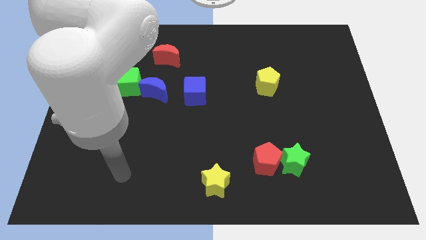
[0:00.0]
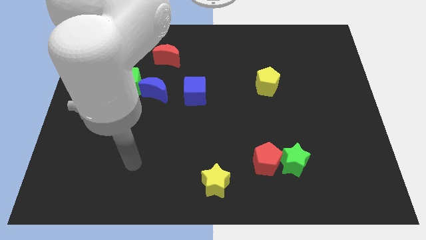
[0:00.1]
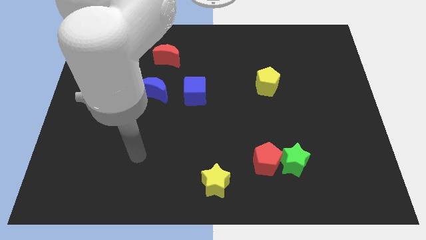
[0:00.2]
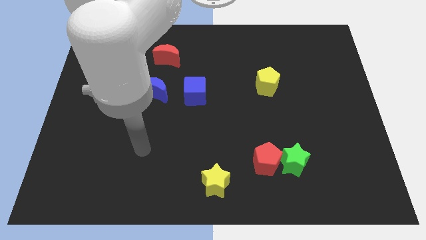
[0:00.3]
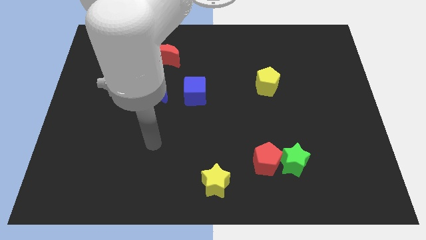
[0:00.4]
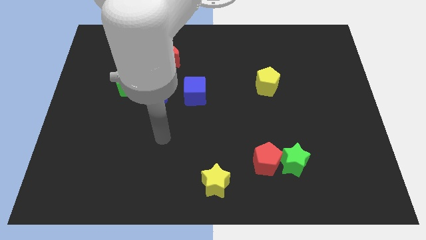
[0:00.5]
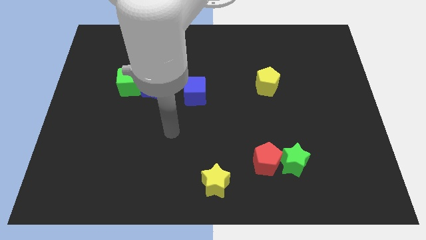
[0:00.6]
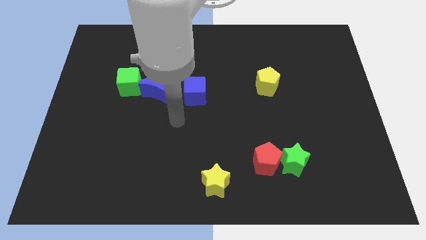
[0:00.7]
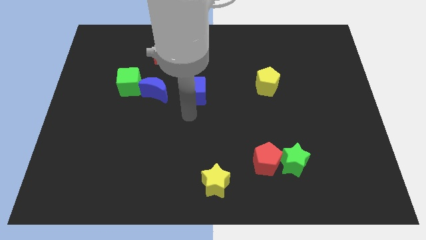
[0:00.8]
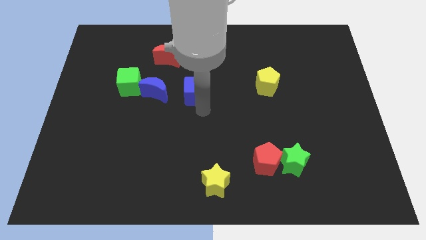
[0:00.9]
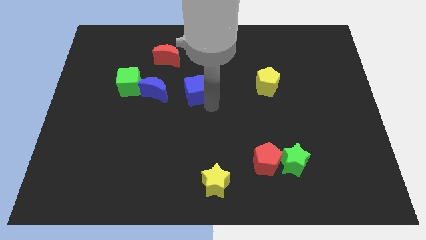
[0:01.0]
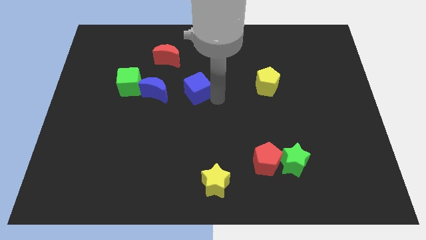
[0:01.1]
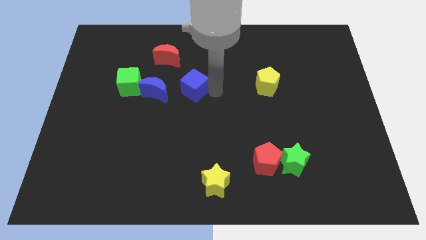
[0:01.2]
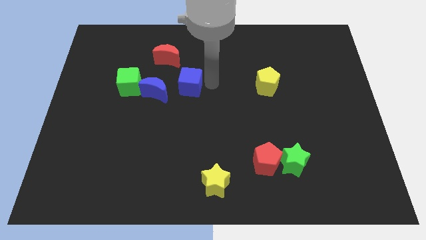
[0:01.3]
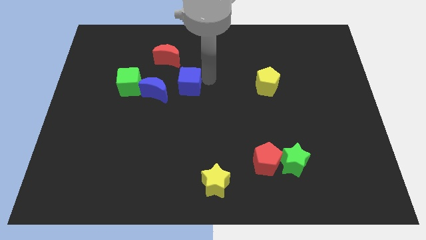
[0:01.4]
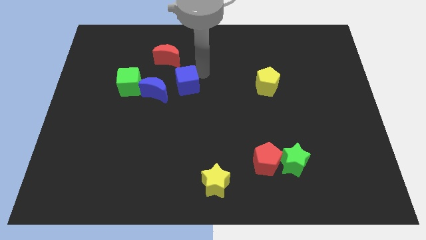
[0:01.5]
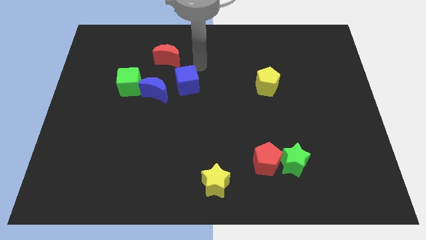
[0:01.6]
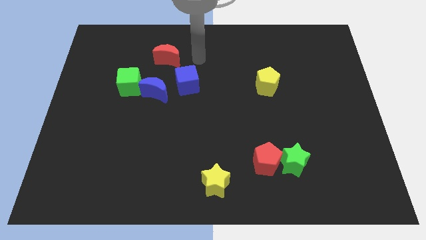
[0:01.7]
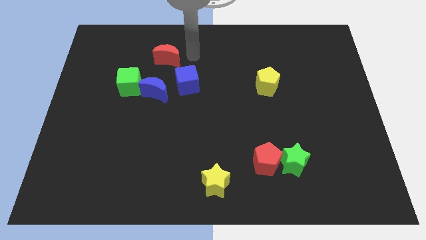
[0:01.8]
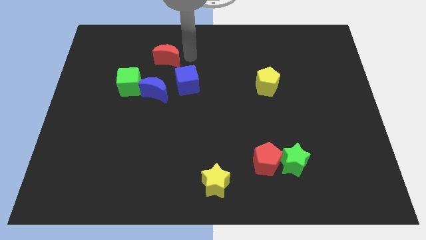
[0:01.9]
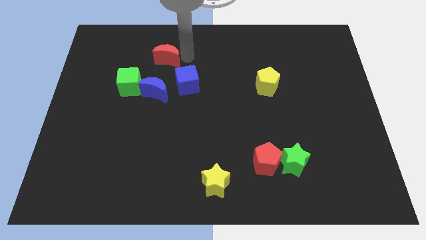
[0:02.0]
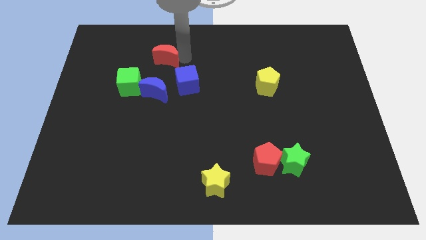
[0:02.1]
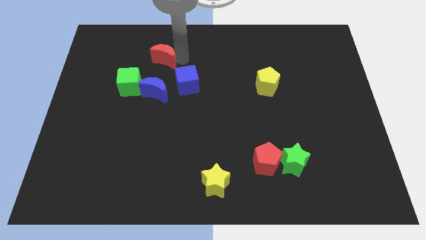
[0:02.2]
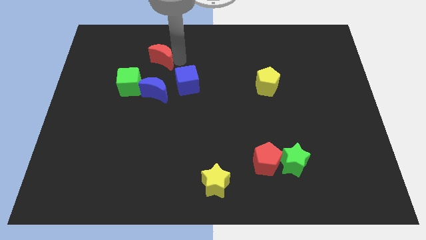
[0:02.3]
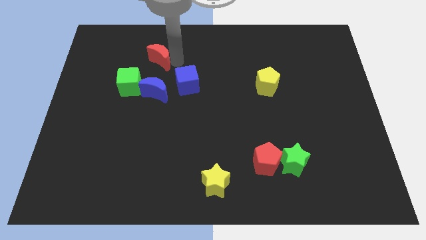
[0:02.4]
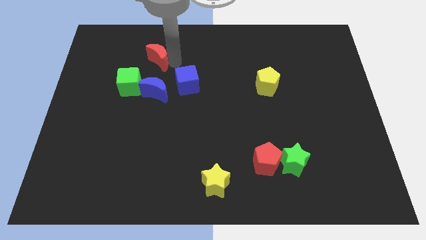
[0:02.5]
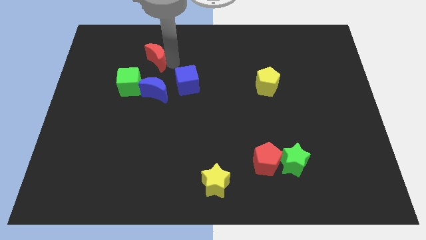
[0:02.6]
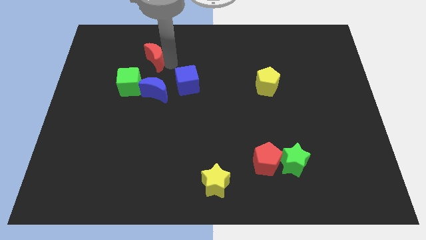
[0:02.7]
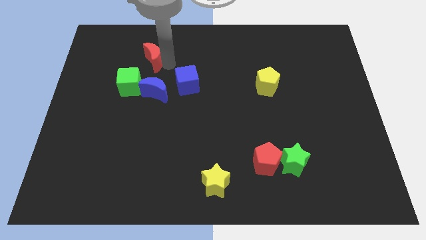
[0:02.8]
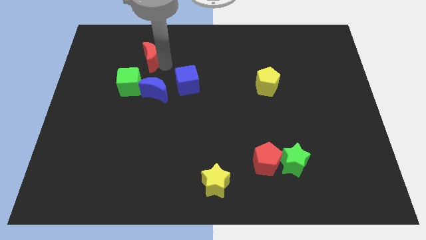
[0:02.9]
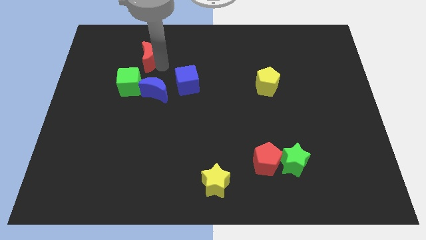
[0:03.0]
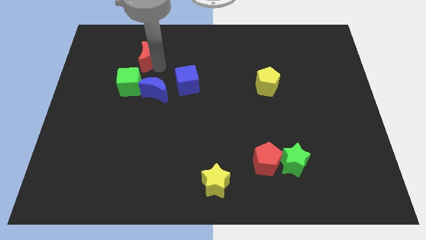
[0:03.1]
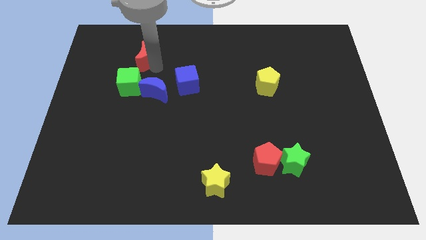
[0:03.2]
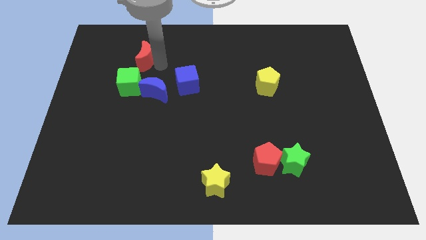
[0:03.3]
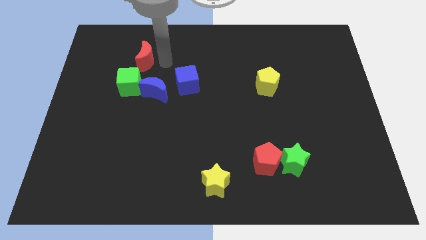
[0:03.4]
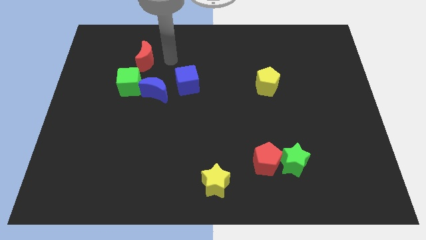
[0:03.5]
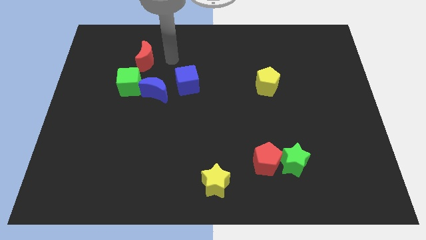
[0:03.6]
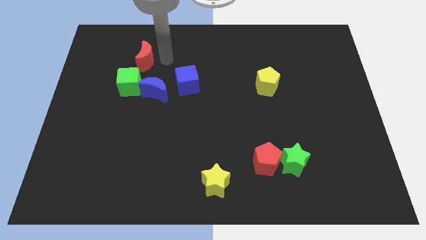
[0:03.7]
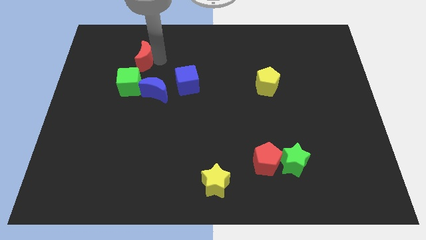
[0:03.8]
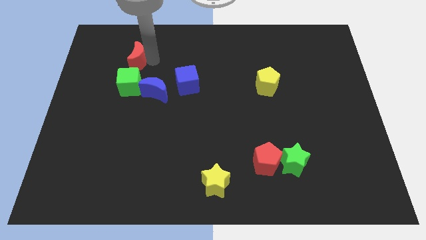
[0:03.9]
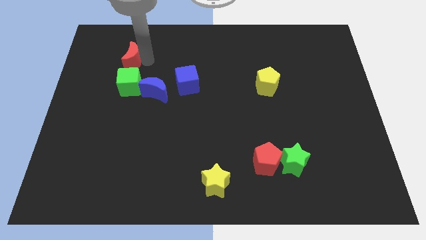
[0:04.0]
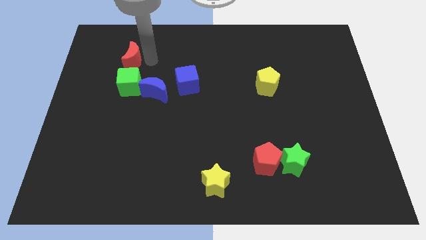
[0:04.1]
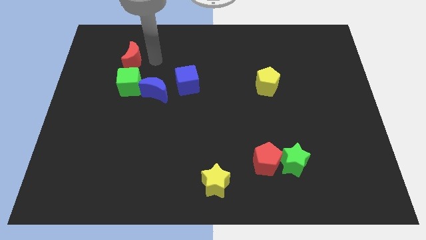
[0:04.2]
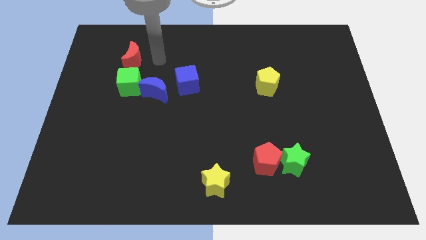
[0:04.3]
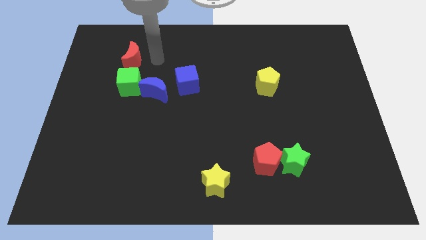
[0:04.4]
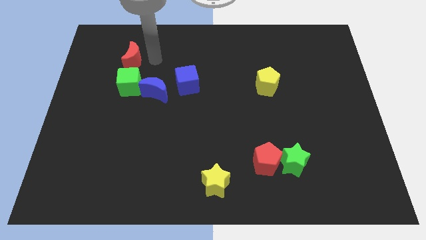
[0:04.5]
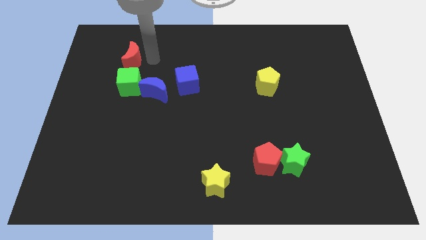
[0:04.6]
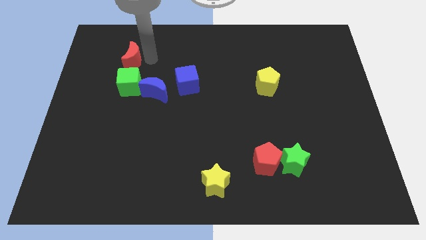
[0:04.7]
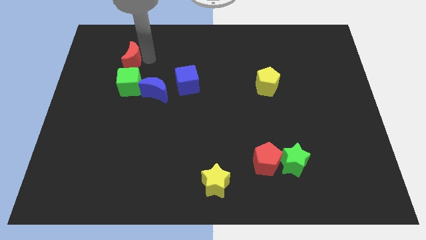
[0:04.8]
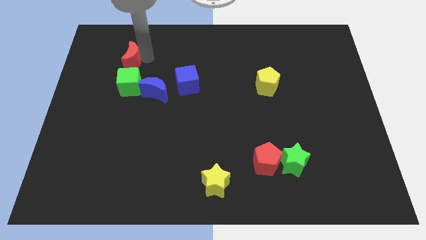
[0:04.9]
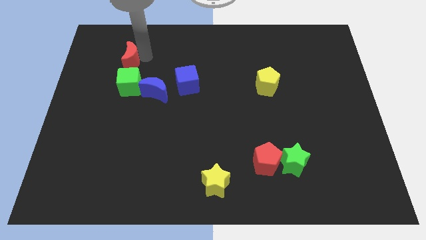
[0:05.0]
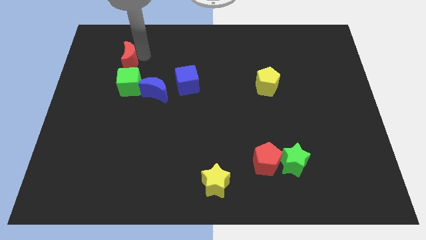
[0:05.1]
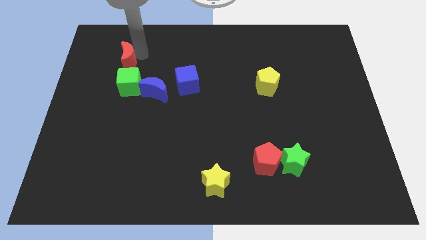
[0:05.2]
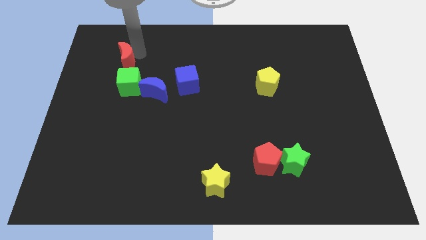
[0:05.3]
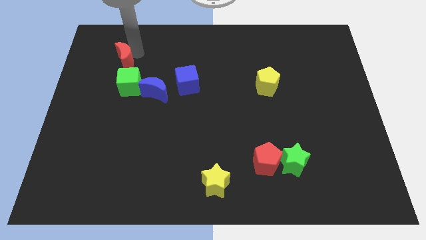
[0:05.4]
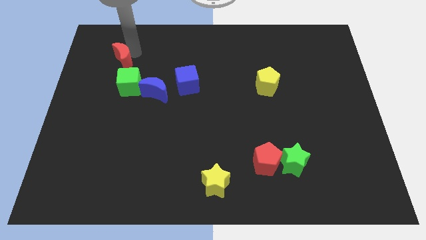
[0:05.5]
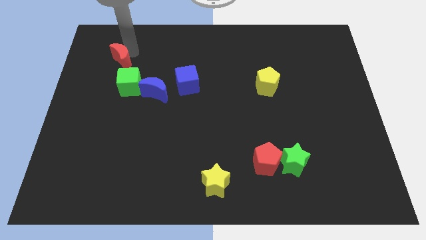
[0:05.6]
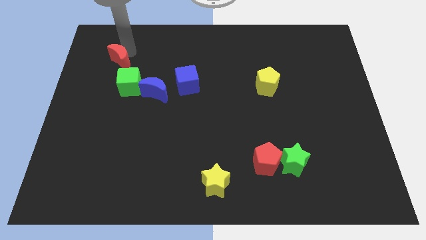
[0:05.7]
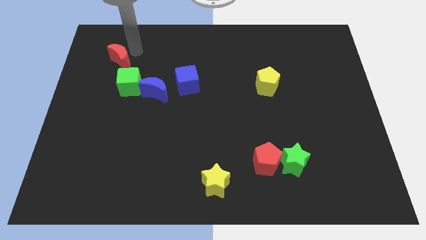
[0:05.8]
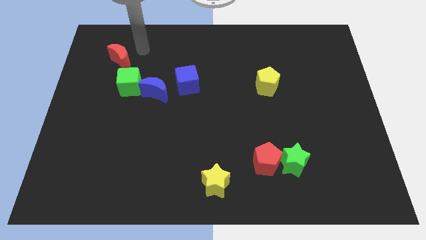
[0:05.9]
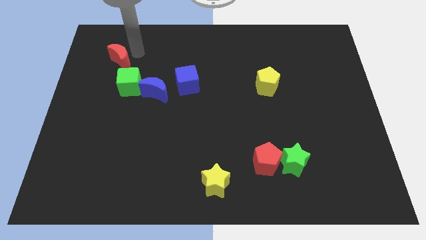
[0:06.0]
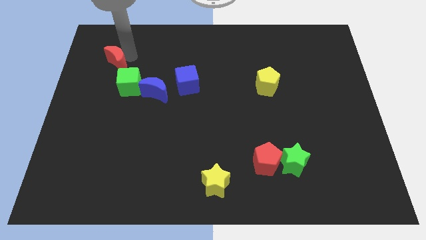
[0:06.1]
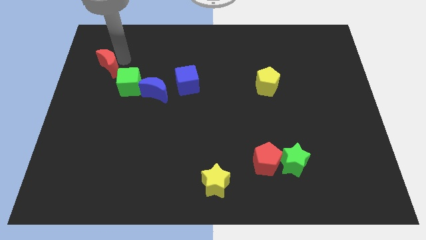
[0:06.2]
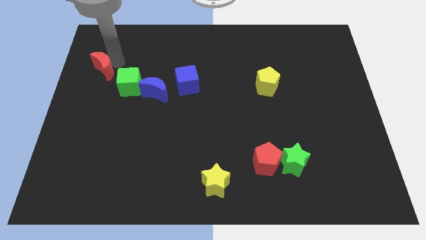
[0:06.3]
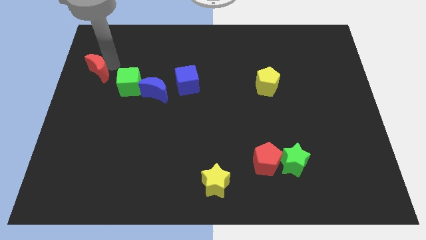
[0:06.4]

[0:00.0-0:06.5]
push the red moon to the left side of the board
